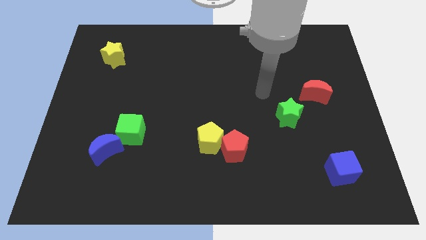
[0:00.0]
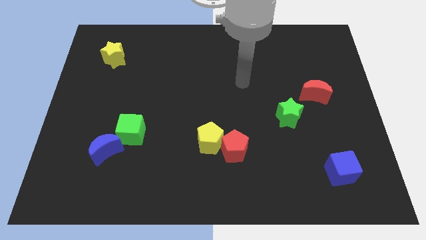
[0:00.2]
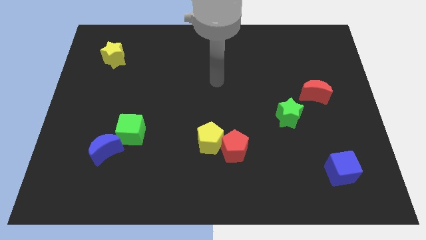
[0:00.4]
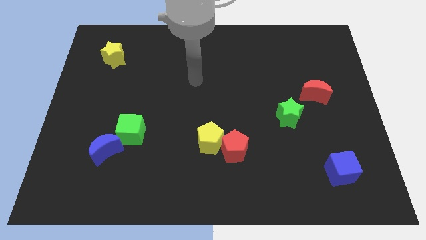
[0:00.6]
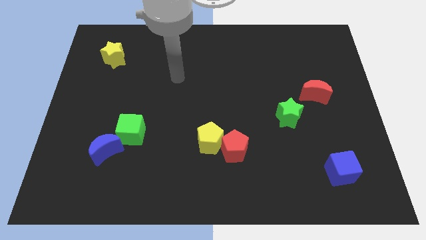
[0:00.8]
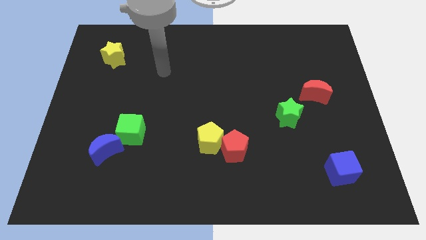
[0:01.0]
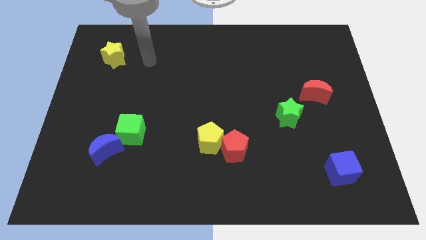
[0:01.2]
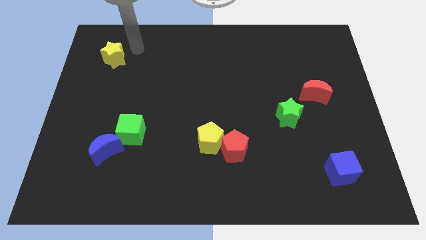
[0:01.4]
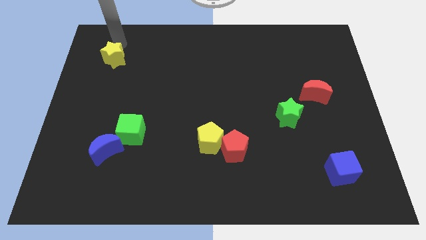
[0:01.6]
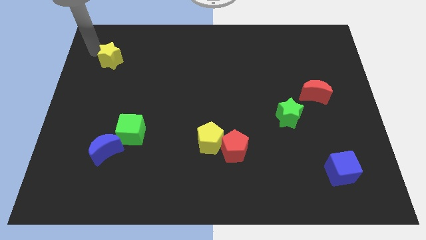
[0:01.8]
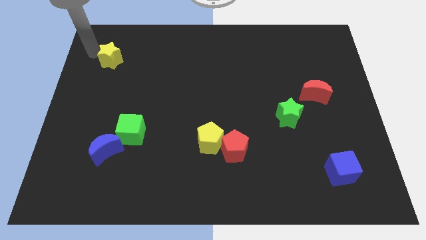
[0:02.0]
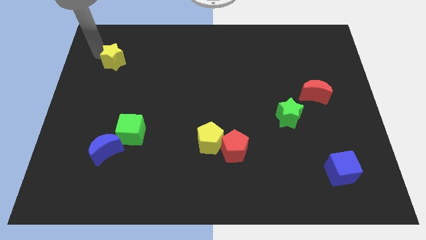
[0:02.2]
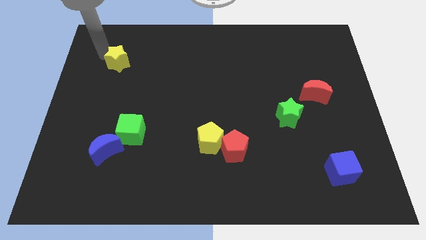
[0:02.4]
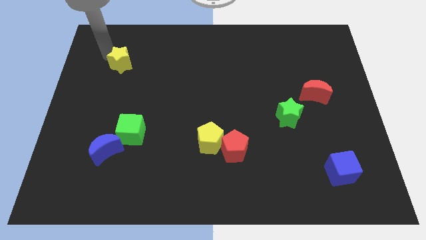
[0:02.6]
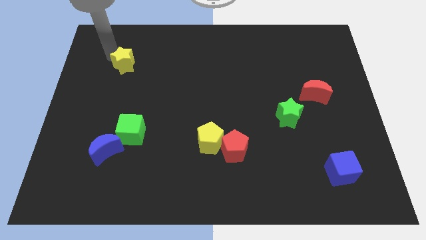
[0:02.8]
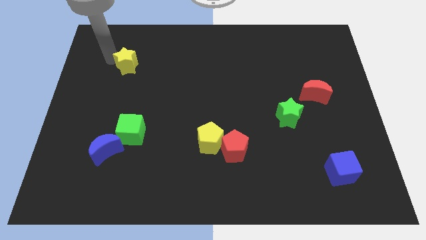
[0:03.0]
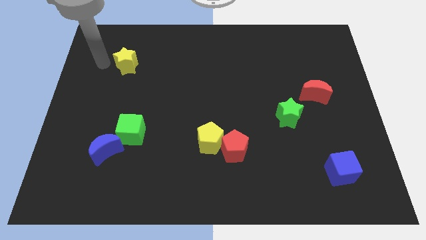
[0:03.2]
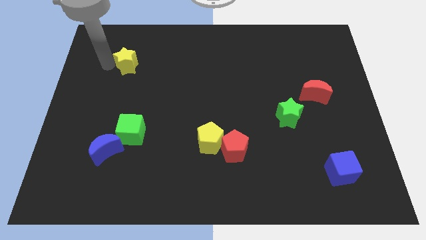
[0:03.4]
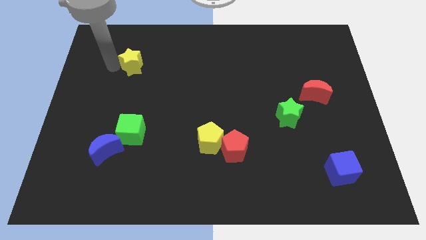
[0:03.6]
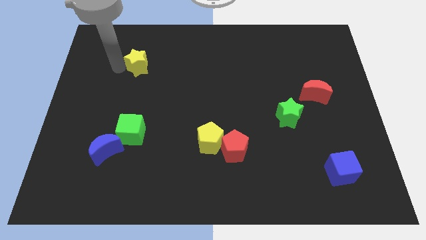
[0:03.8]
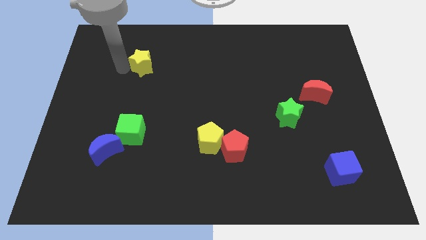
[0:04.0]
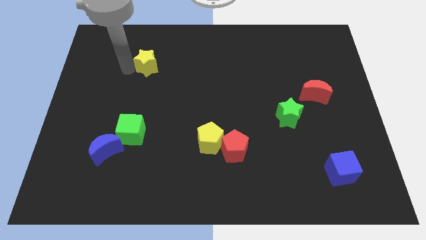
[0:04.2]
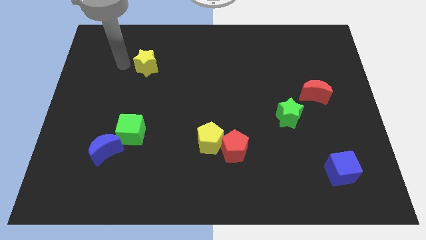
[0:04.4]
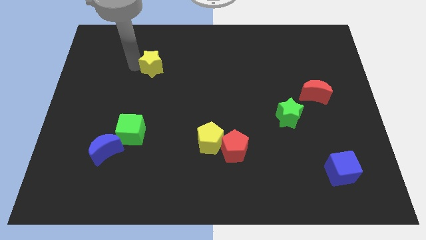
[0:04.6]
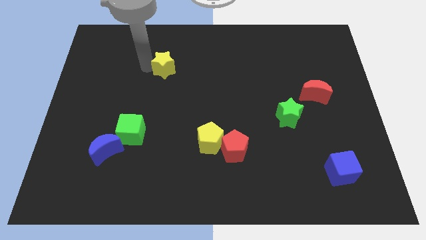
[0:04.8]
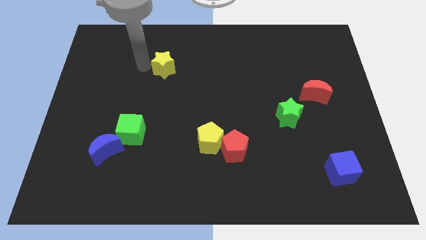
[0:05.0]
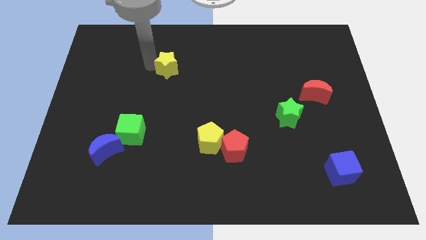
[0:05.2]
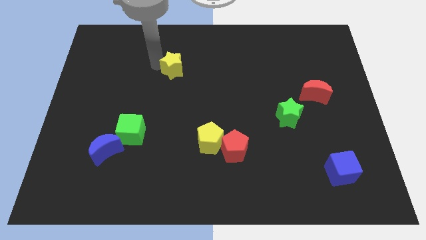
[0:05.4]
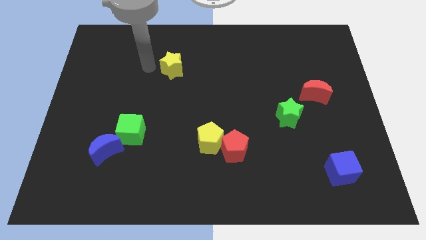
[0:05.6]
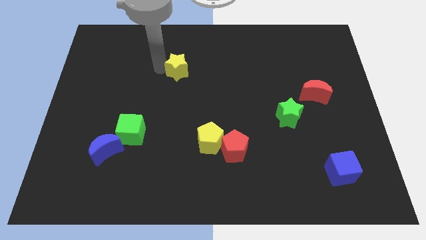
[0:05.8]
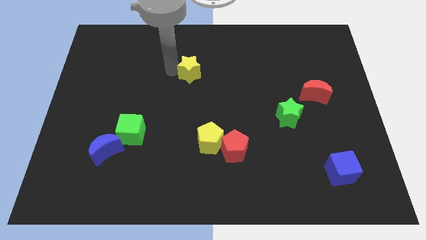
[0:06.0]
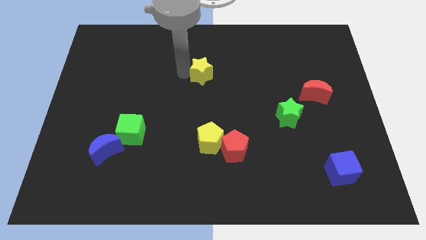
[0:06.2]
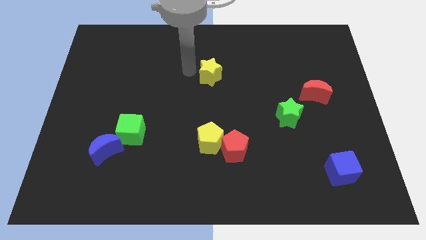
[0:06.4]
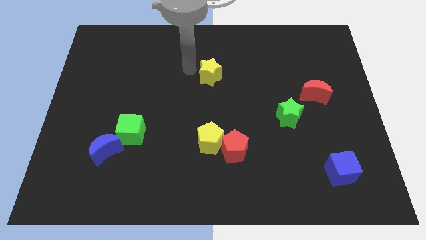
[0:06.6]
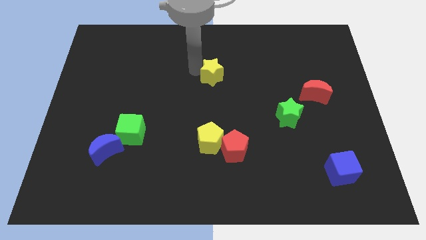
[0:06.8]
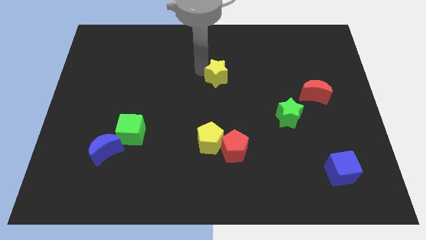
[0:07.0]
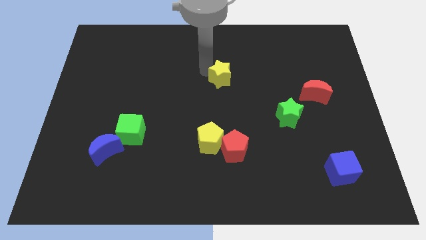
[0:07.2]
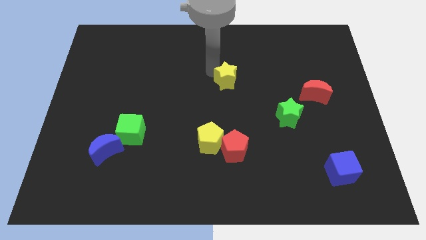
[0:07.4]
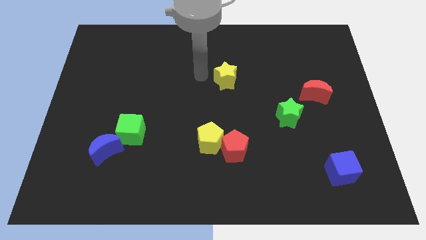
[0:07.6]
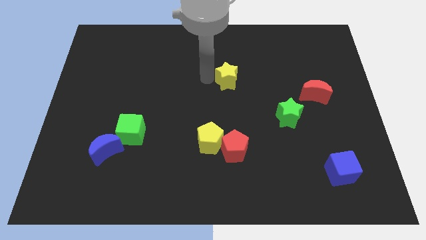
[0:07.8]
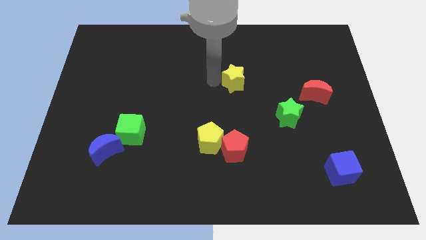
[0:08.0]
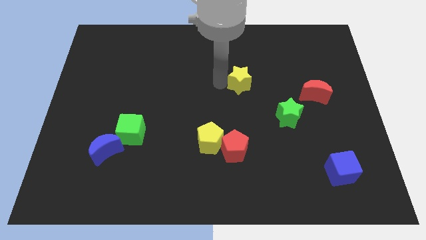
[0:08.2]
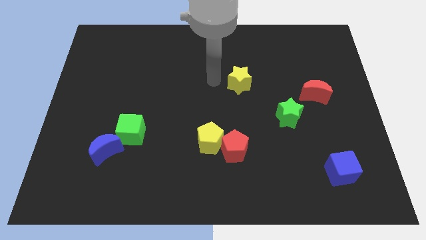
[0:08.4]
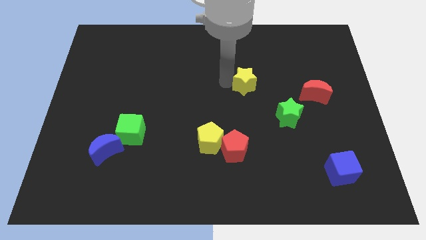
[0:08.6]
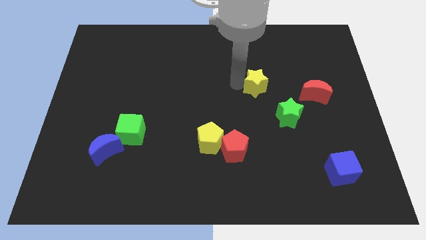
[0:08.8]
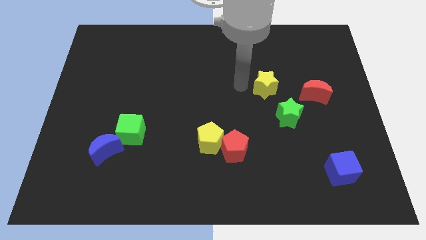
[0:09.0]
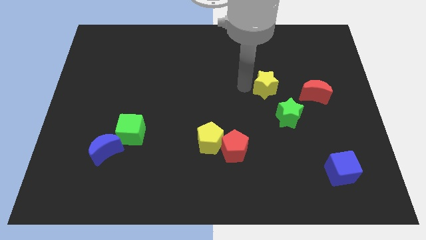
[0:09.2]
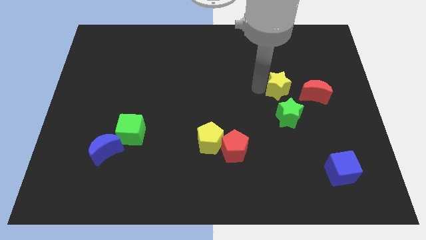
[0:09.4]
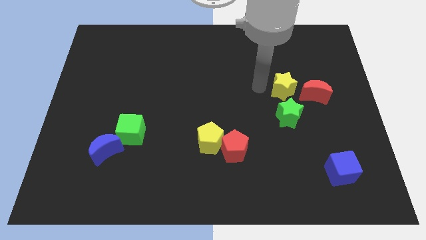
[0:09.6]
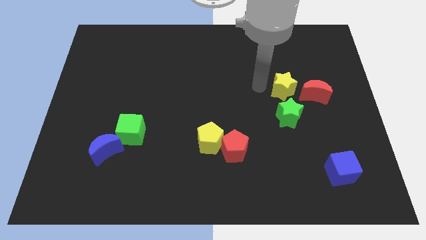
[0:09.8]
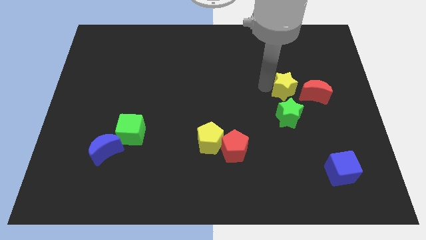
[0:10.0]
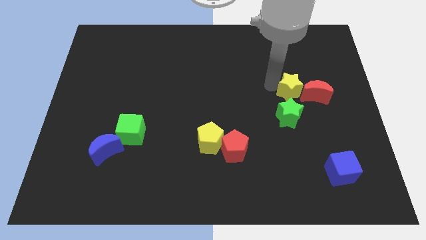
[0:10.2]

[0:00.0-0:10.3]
put the yellow star close to the red moon

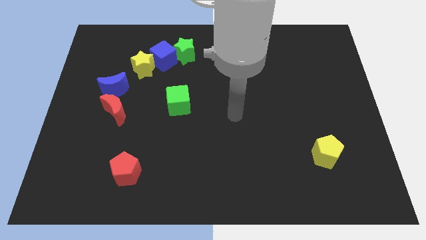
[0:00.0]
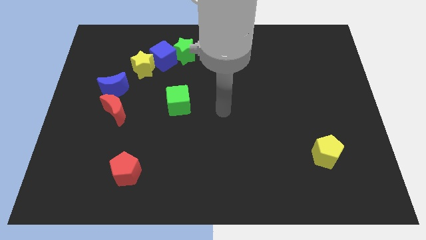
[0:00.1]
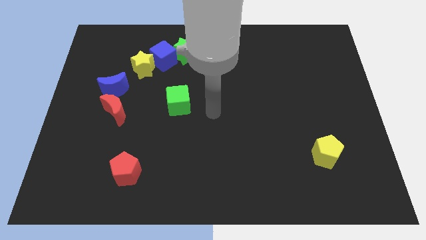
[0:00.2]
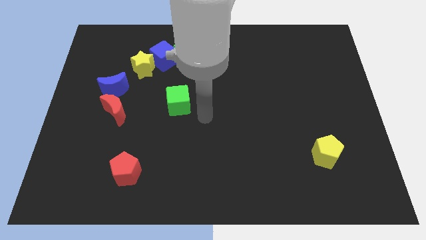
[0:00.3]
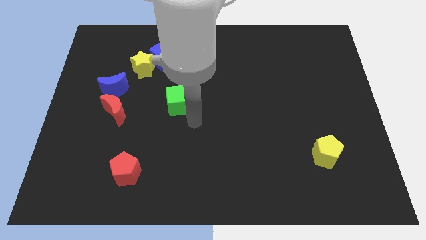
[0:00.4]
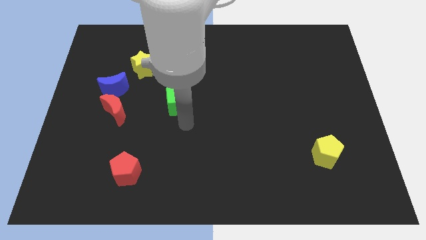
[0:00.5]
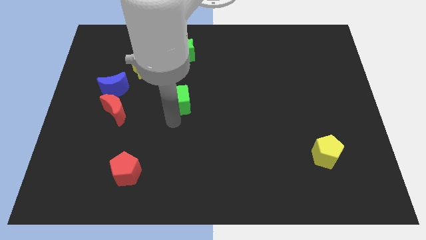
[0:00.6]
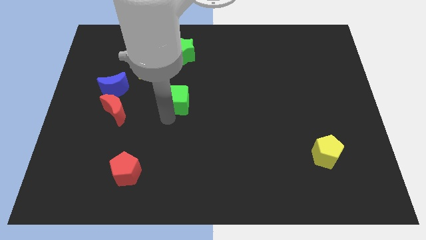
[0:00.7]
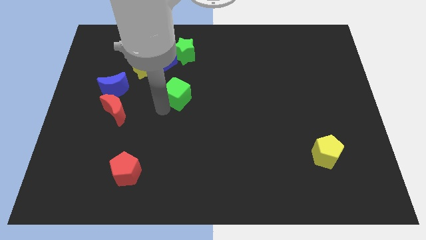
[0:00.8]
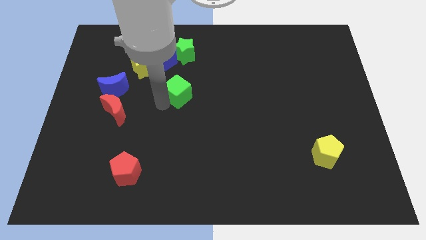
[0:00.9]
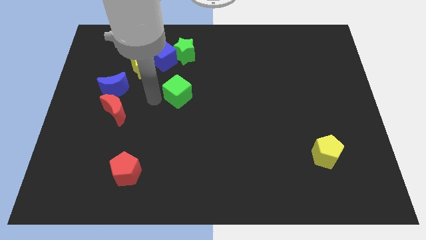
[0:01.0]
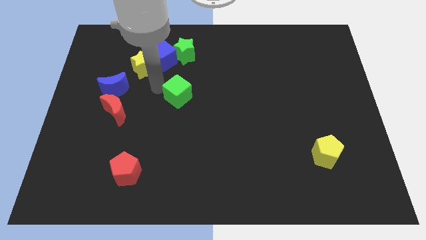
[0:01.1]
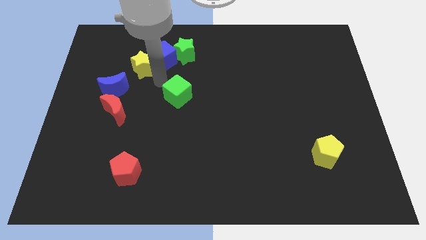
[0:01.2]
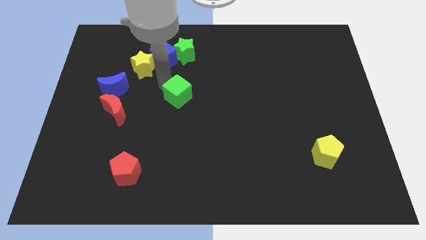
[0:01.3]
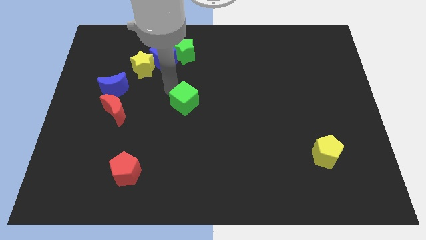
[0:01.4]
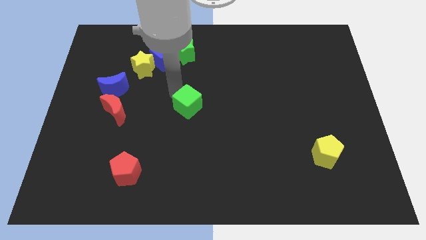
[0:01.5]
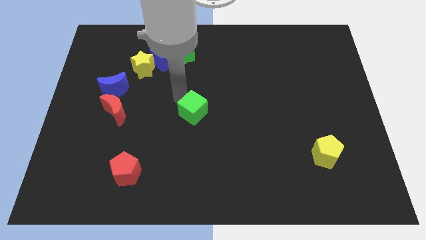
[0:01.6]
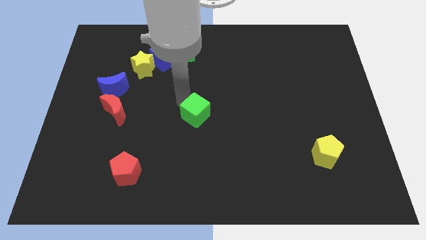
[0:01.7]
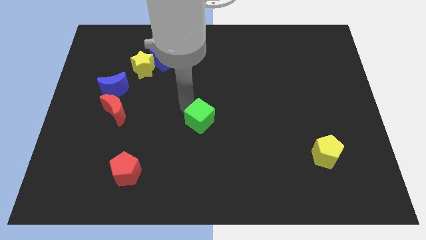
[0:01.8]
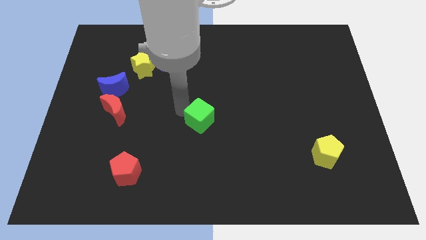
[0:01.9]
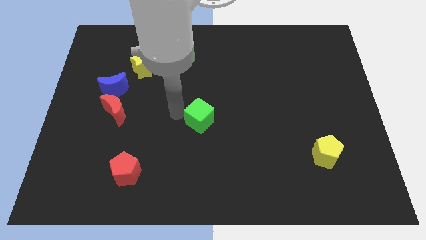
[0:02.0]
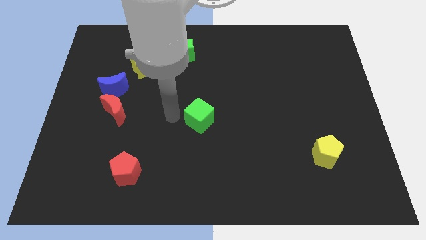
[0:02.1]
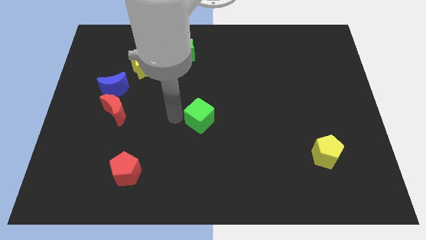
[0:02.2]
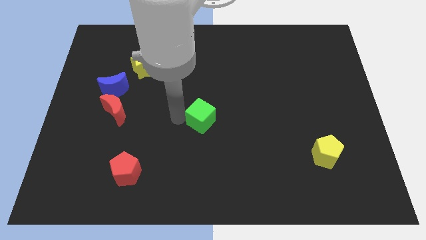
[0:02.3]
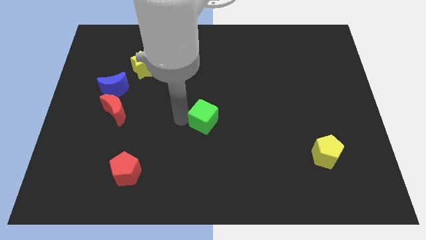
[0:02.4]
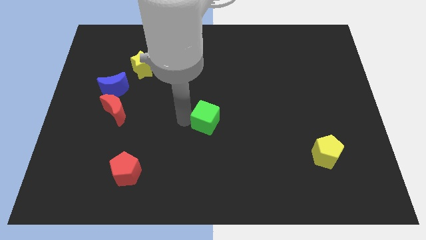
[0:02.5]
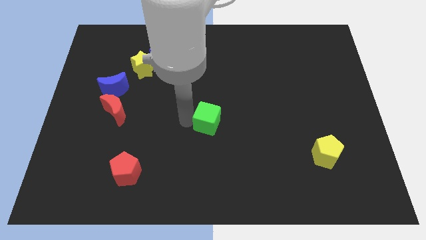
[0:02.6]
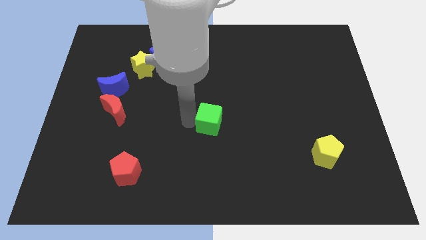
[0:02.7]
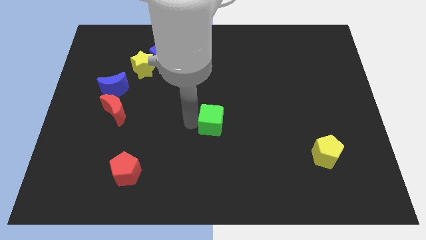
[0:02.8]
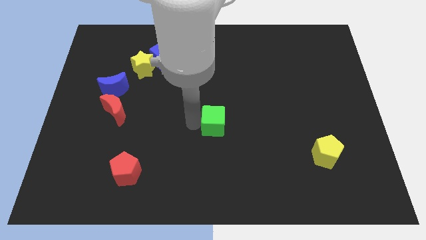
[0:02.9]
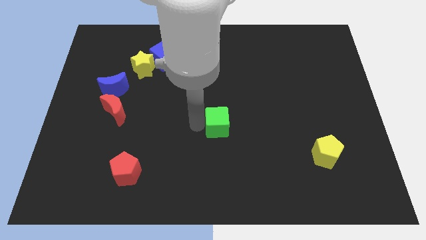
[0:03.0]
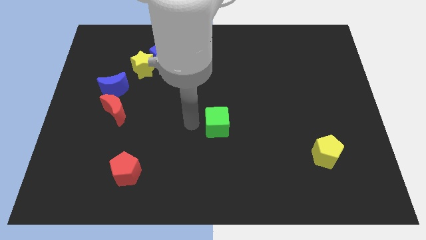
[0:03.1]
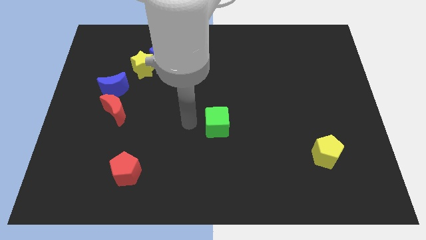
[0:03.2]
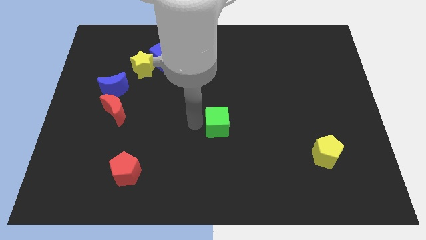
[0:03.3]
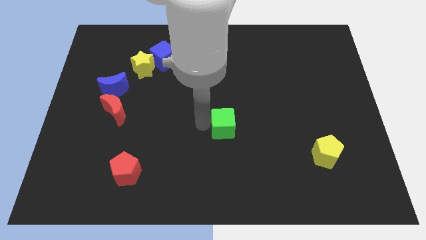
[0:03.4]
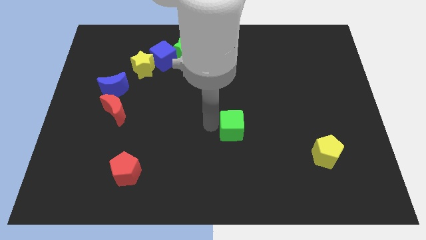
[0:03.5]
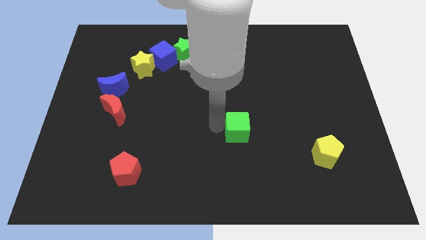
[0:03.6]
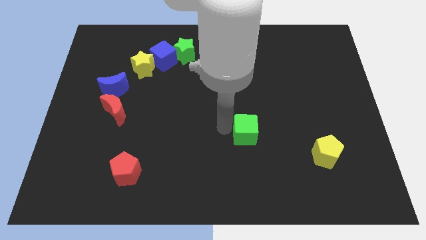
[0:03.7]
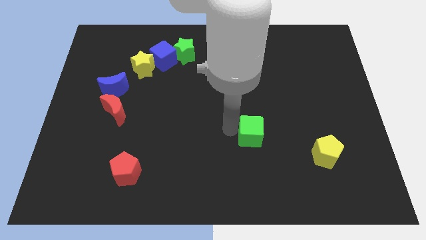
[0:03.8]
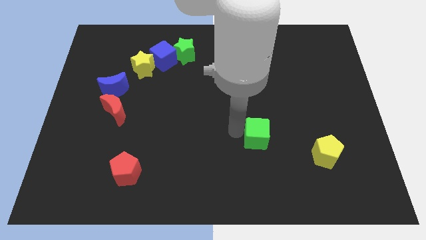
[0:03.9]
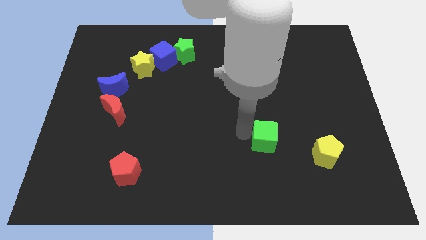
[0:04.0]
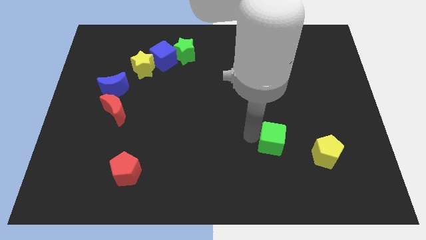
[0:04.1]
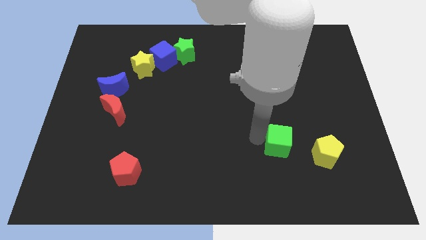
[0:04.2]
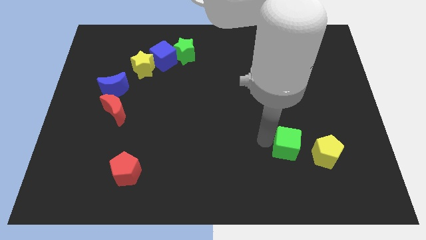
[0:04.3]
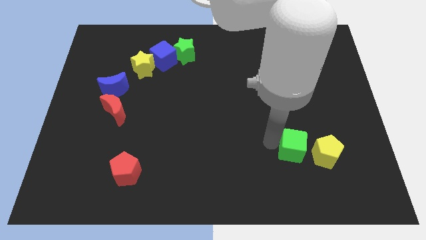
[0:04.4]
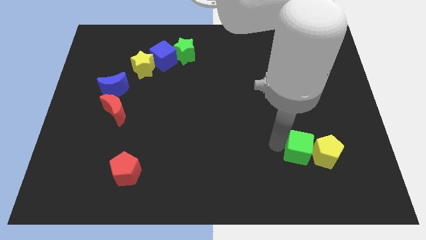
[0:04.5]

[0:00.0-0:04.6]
move the green cube close to the yellow pentagon
